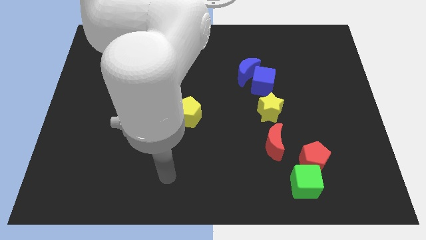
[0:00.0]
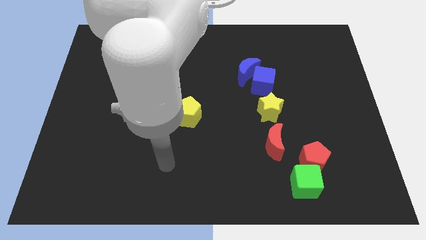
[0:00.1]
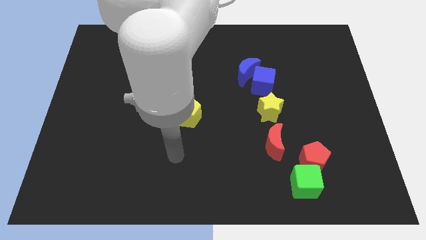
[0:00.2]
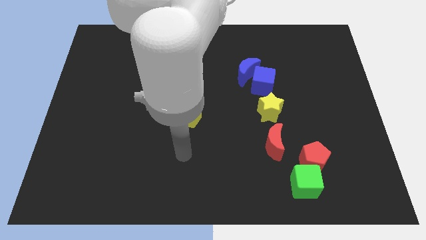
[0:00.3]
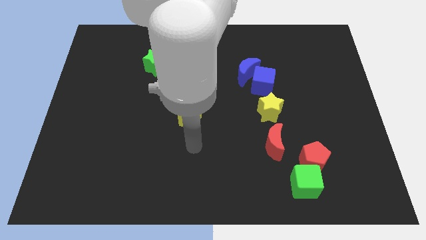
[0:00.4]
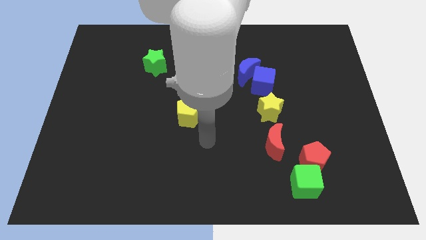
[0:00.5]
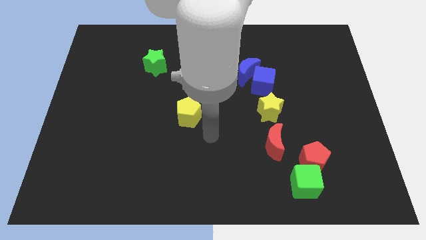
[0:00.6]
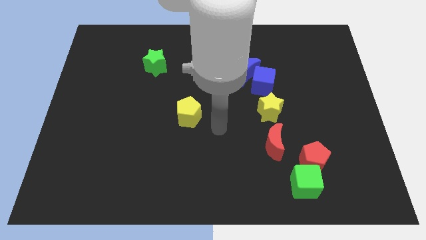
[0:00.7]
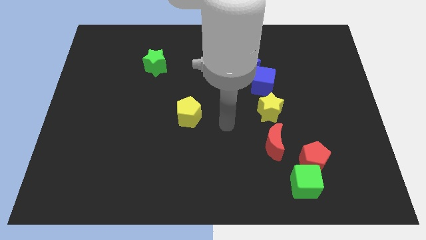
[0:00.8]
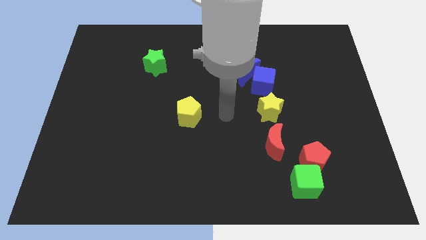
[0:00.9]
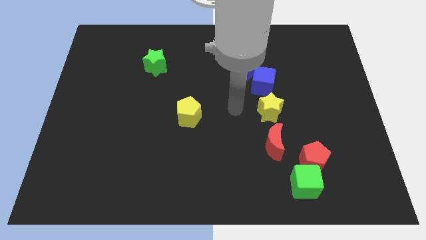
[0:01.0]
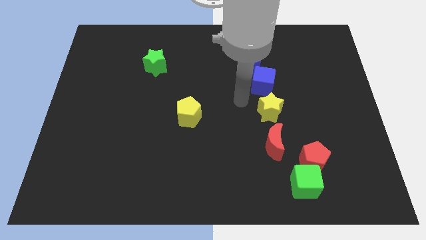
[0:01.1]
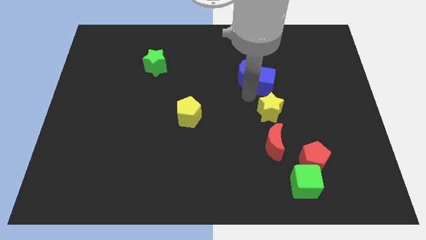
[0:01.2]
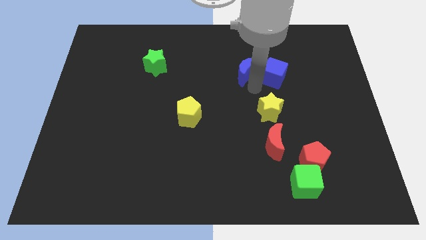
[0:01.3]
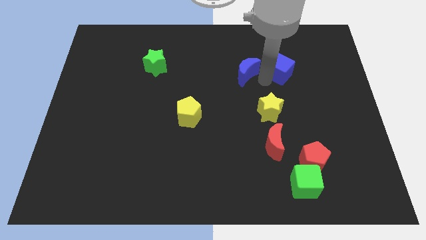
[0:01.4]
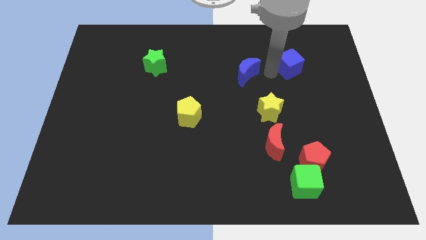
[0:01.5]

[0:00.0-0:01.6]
pull the blue moon apart from the blue cube

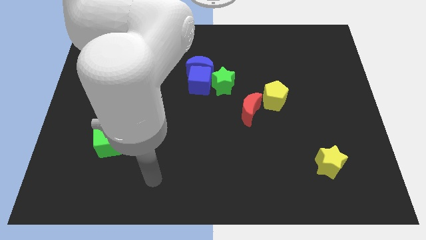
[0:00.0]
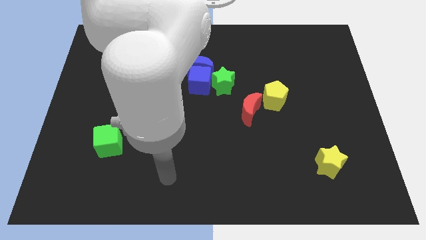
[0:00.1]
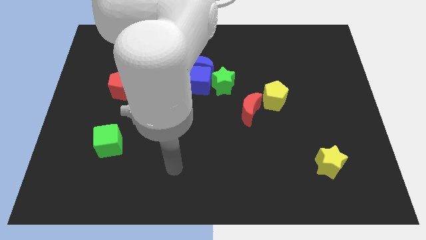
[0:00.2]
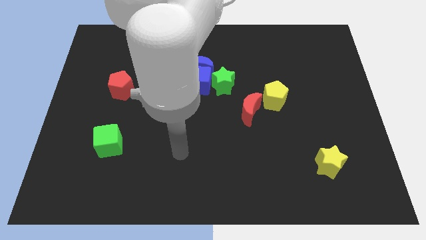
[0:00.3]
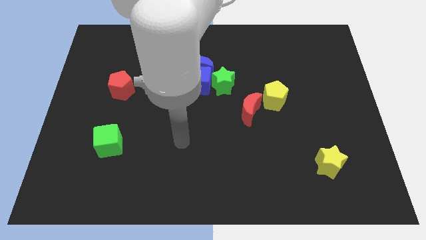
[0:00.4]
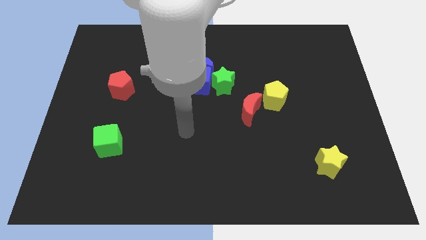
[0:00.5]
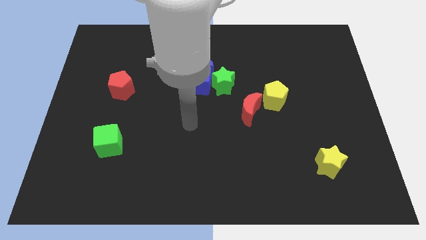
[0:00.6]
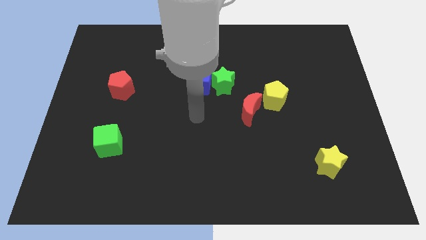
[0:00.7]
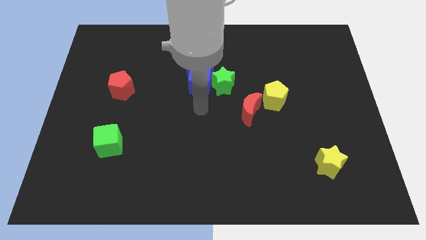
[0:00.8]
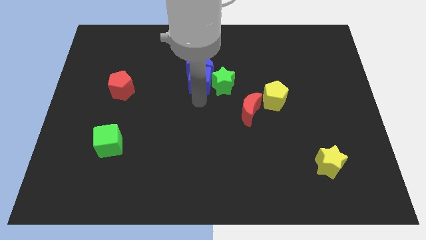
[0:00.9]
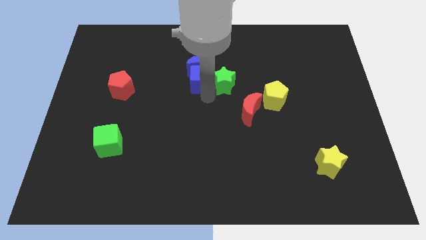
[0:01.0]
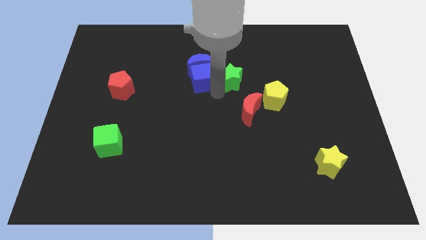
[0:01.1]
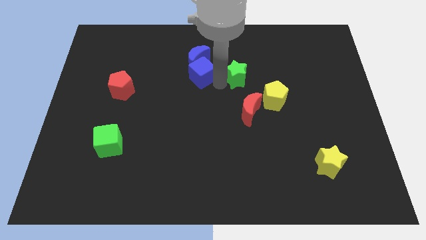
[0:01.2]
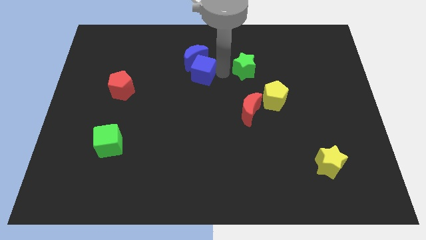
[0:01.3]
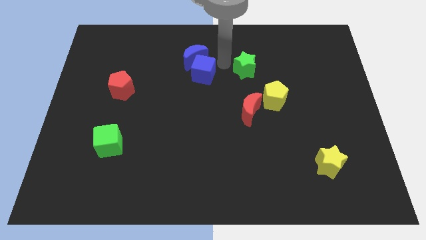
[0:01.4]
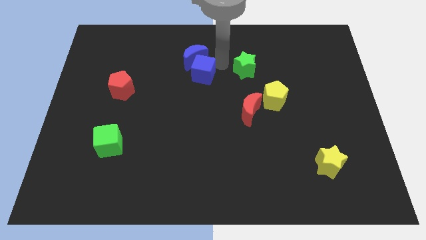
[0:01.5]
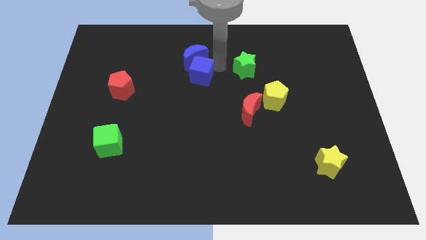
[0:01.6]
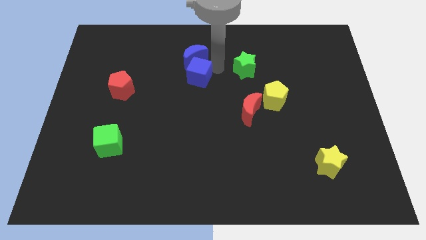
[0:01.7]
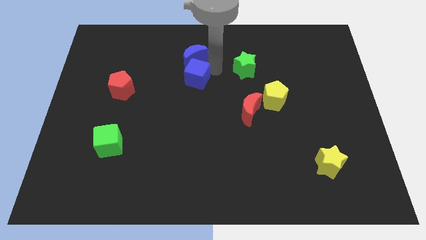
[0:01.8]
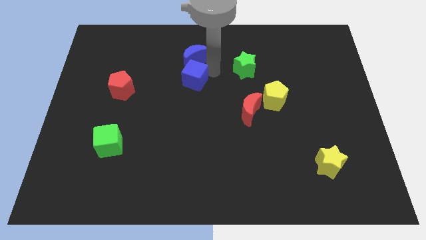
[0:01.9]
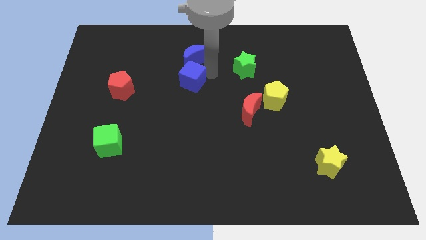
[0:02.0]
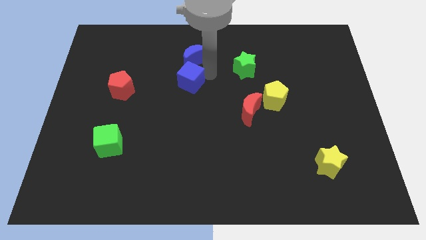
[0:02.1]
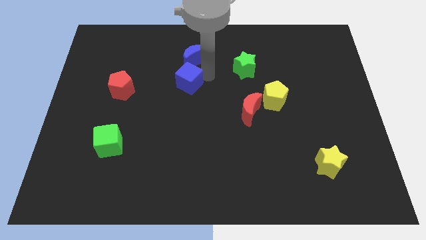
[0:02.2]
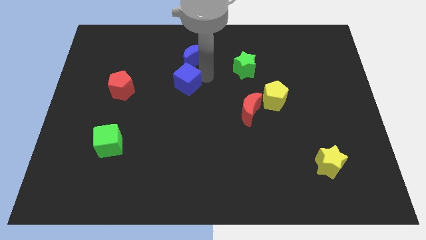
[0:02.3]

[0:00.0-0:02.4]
pull the blue cube apart from the blue moon and green star

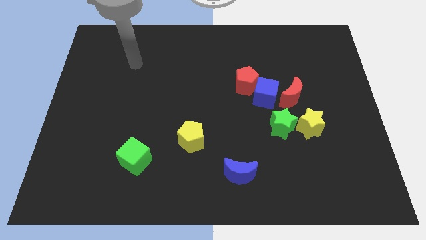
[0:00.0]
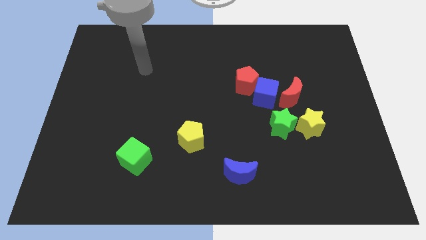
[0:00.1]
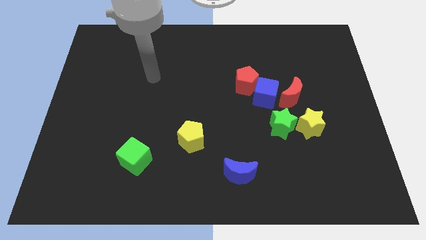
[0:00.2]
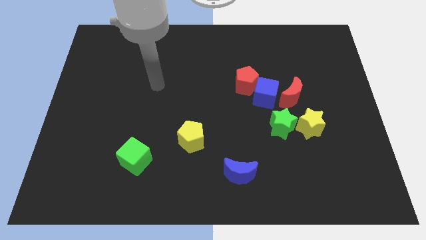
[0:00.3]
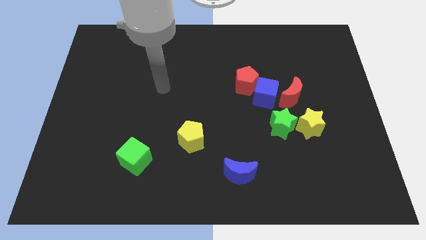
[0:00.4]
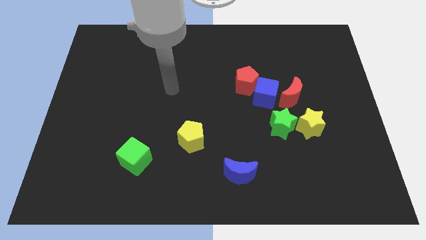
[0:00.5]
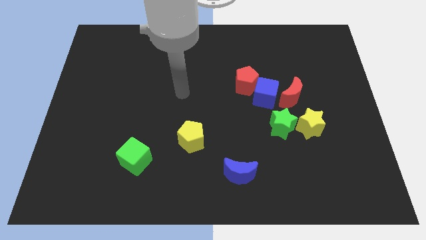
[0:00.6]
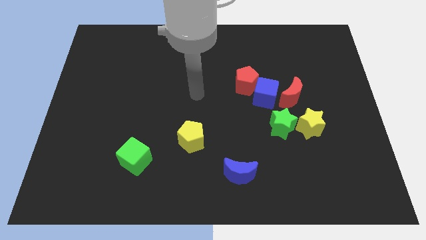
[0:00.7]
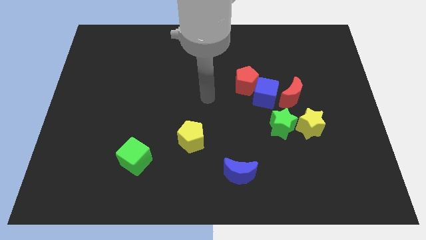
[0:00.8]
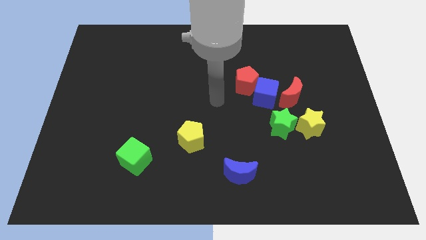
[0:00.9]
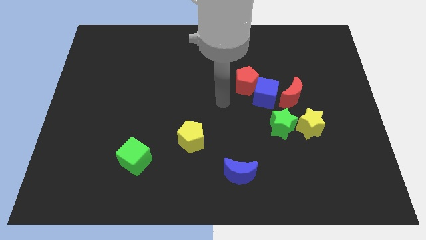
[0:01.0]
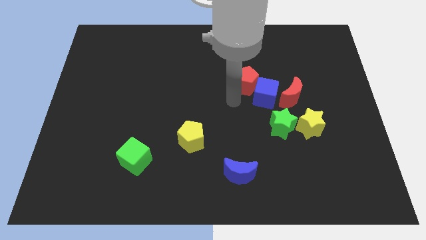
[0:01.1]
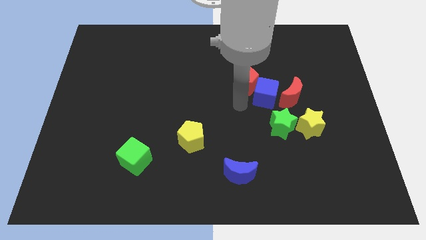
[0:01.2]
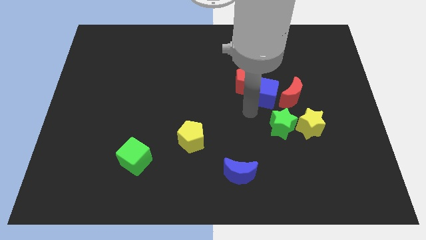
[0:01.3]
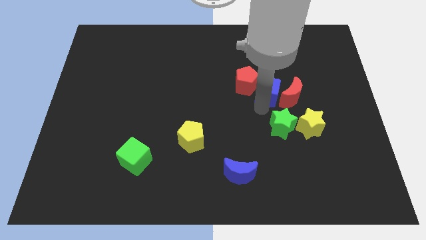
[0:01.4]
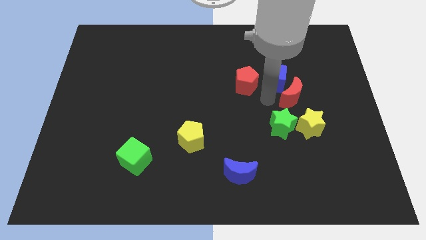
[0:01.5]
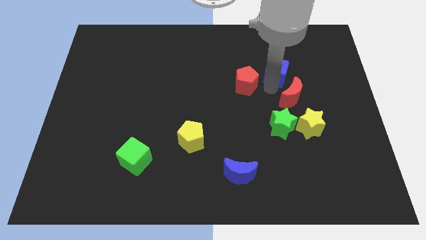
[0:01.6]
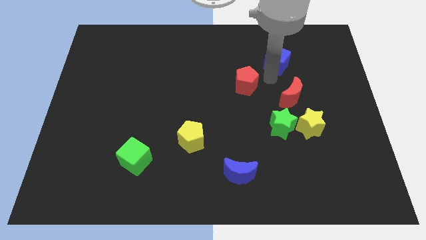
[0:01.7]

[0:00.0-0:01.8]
move the red pentagon away from the blue cube

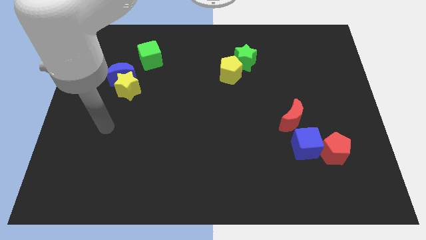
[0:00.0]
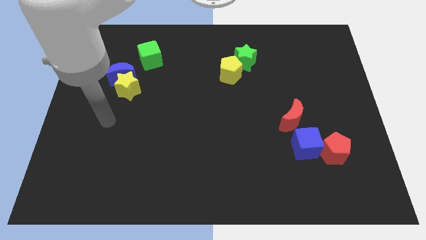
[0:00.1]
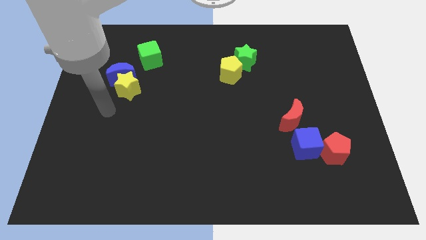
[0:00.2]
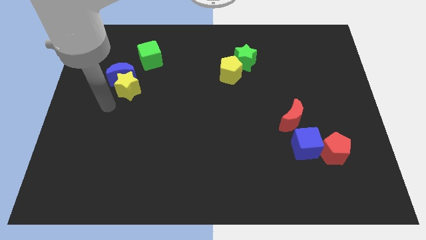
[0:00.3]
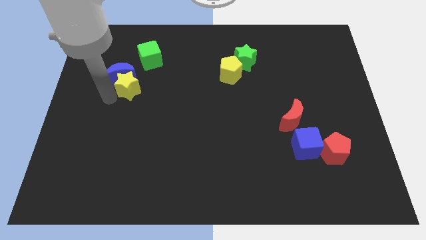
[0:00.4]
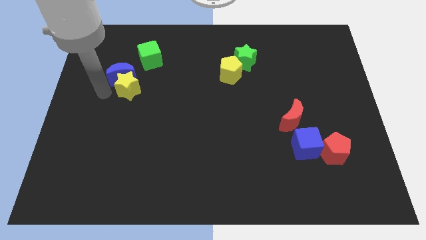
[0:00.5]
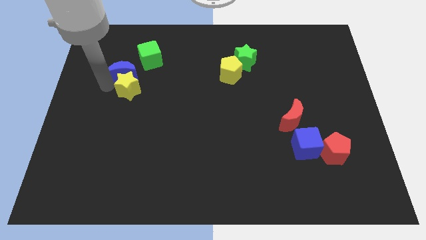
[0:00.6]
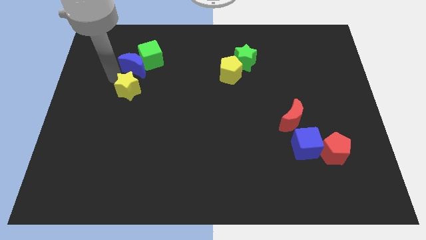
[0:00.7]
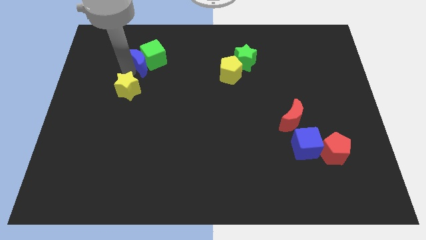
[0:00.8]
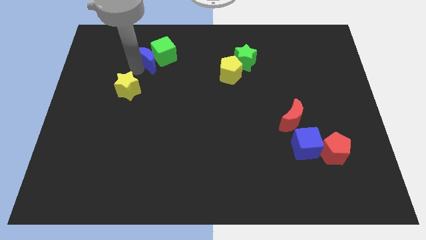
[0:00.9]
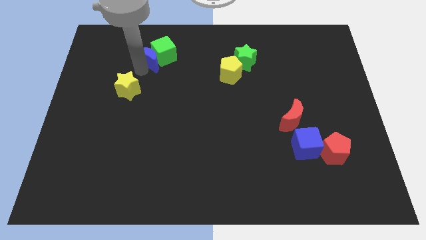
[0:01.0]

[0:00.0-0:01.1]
pull the yellow star apart from the blue moon

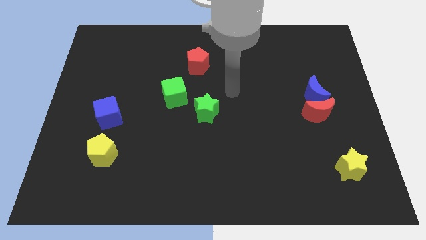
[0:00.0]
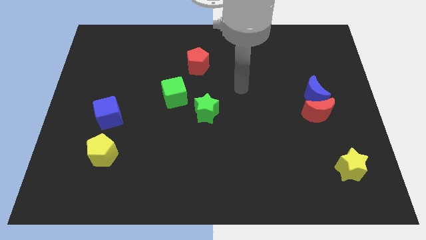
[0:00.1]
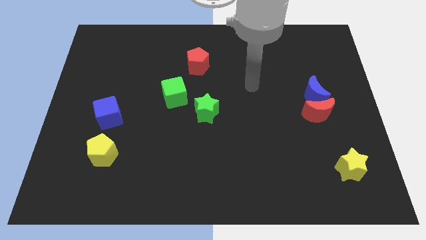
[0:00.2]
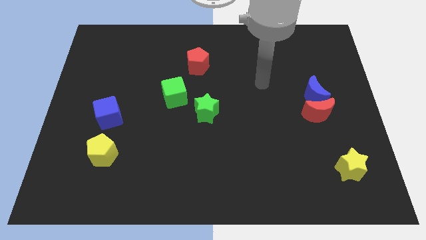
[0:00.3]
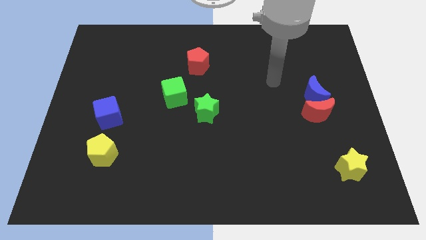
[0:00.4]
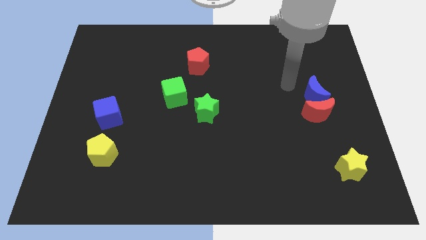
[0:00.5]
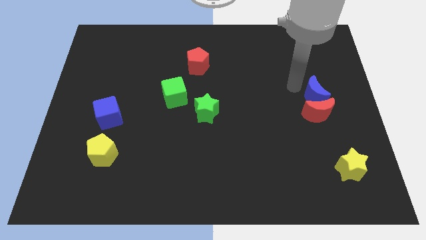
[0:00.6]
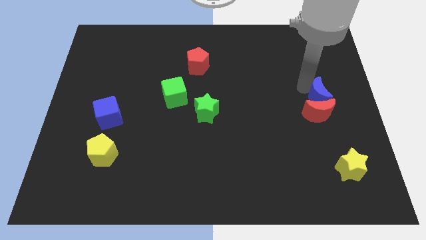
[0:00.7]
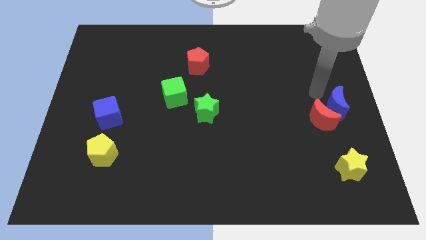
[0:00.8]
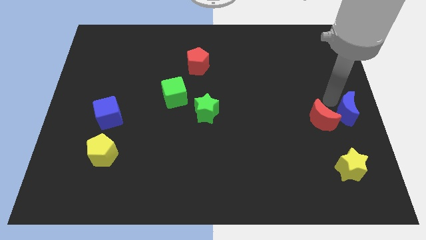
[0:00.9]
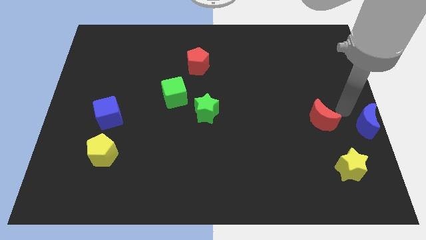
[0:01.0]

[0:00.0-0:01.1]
separate the red moon from the blue moon

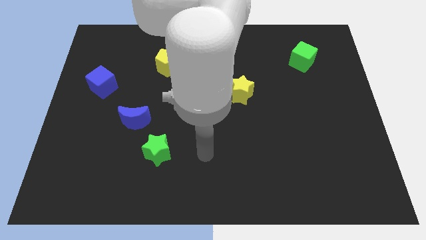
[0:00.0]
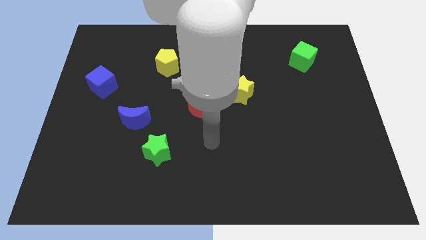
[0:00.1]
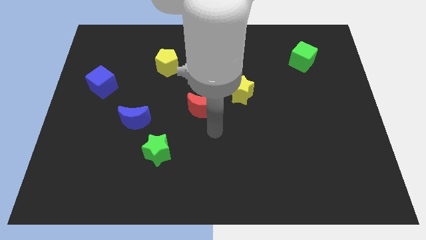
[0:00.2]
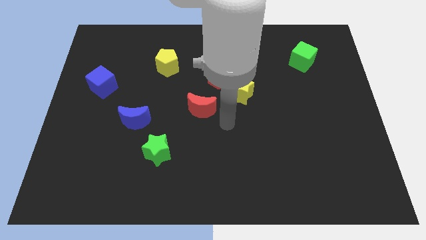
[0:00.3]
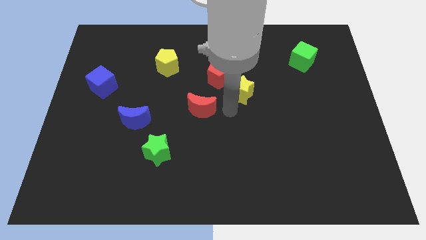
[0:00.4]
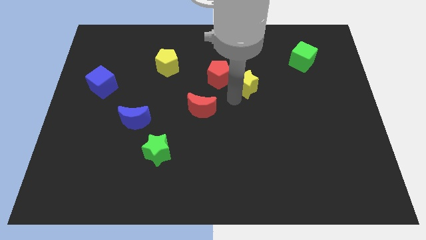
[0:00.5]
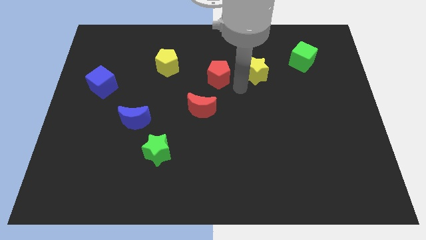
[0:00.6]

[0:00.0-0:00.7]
pull the red pentagon apart from the yellow star

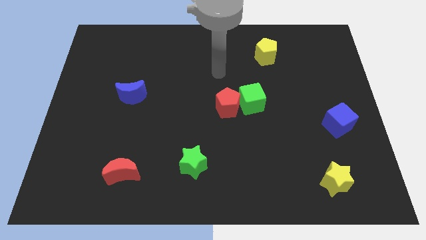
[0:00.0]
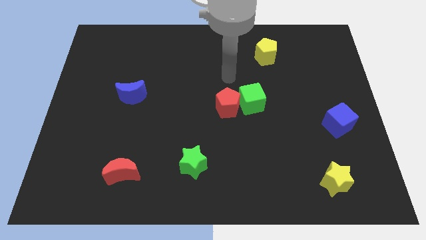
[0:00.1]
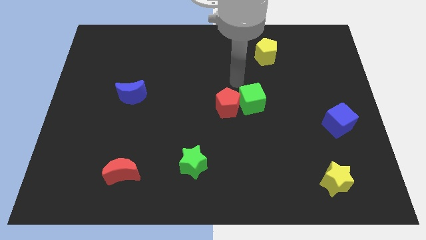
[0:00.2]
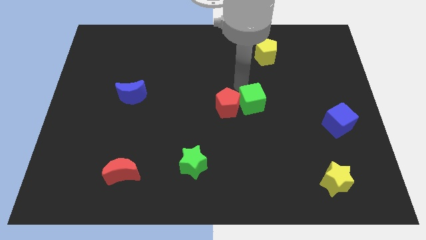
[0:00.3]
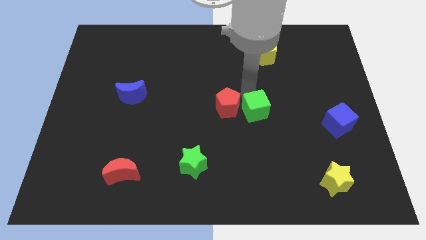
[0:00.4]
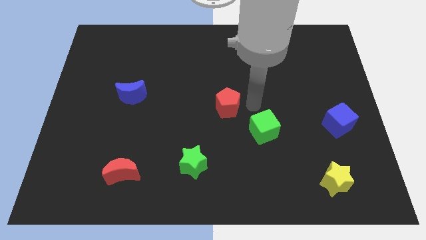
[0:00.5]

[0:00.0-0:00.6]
separate the red pentagon from the green cube
